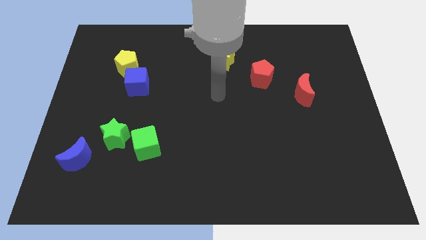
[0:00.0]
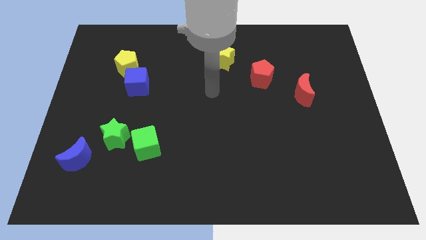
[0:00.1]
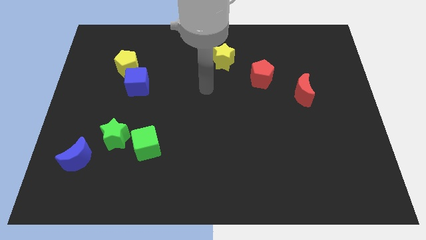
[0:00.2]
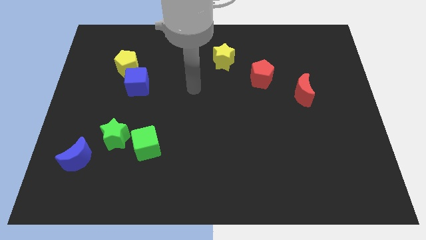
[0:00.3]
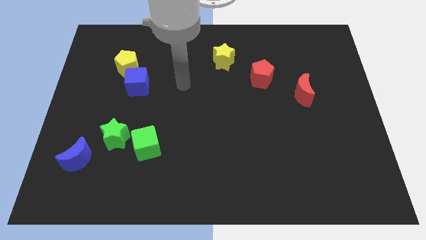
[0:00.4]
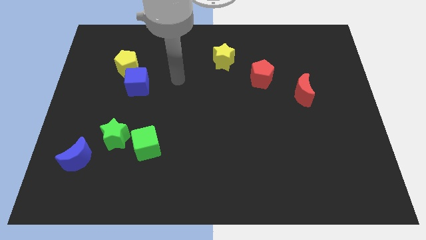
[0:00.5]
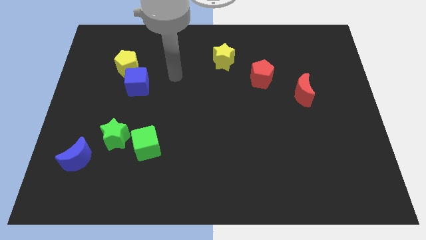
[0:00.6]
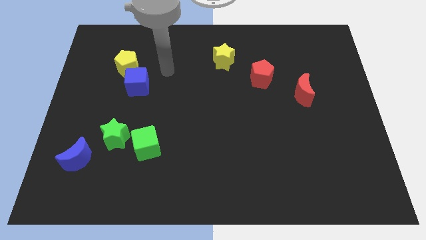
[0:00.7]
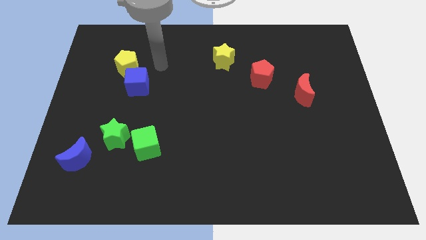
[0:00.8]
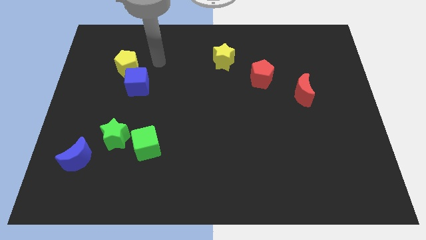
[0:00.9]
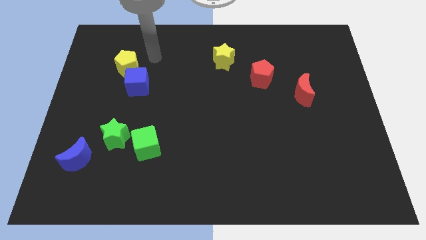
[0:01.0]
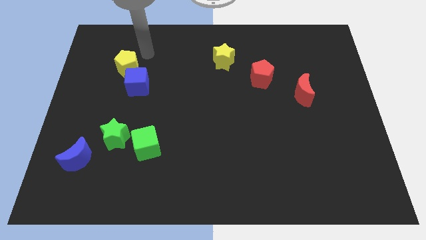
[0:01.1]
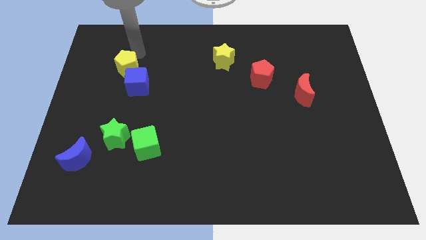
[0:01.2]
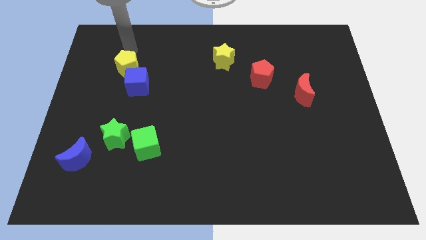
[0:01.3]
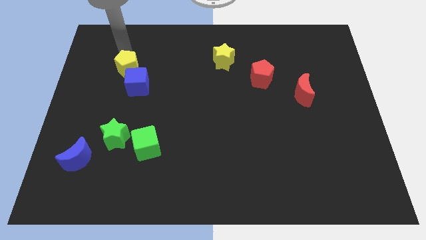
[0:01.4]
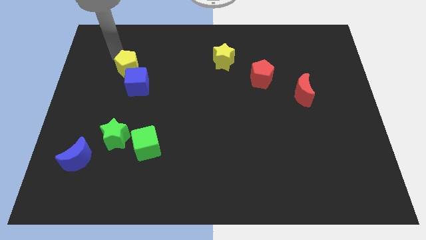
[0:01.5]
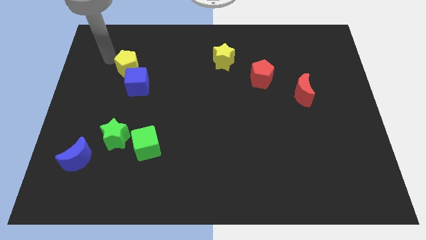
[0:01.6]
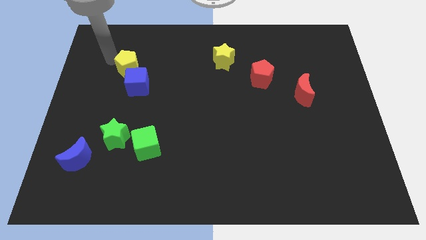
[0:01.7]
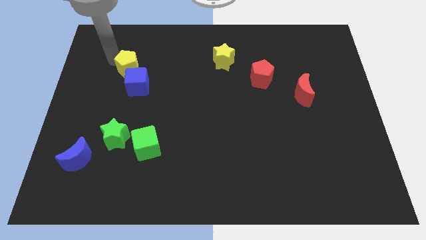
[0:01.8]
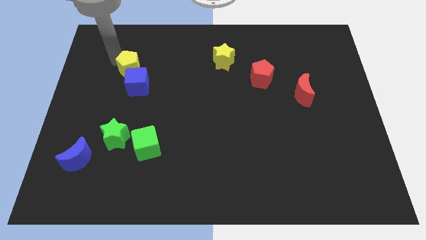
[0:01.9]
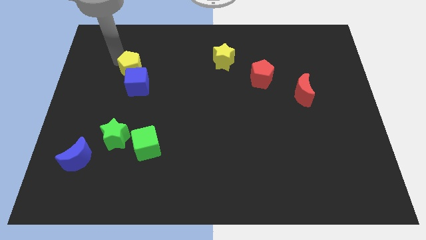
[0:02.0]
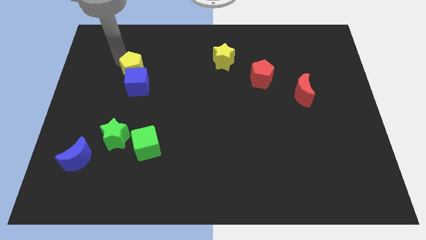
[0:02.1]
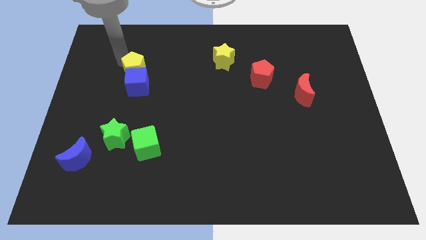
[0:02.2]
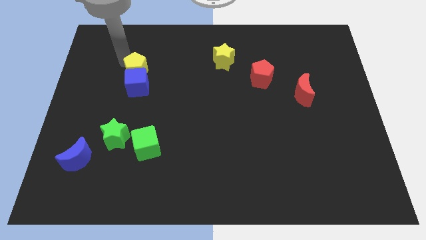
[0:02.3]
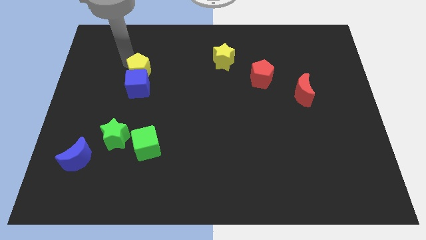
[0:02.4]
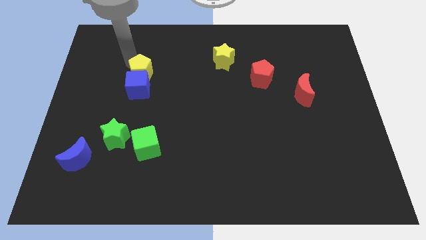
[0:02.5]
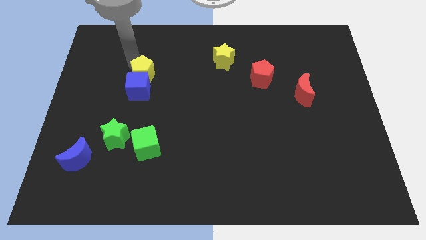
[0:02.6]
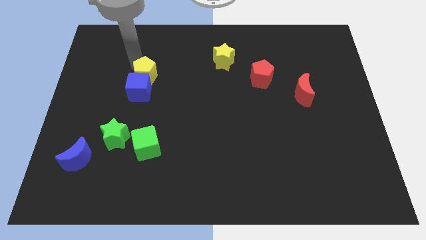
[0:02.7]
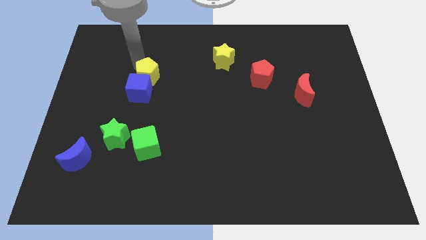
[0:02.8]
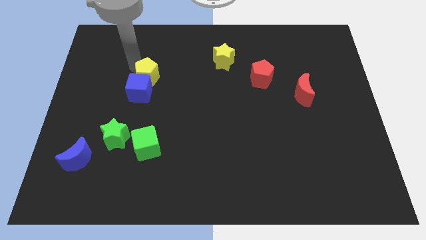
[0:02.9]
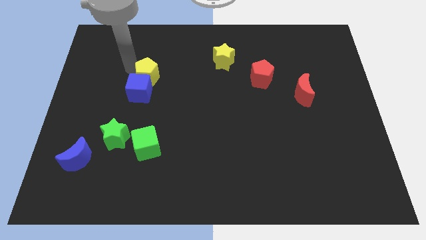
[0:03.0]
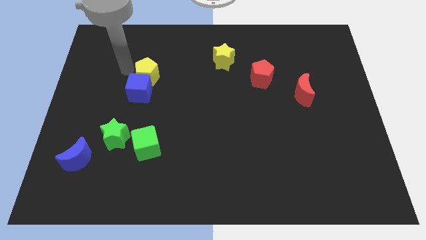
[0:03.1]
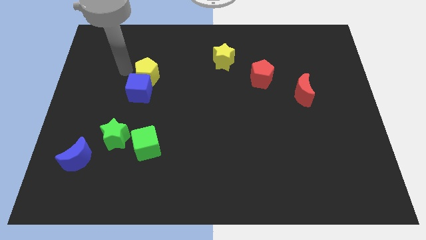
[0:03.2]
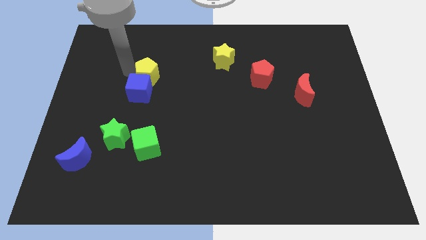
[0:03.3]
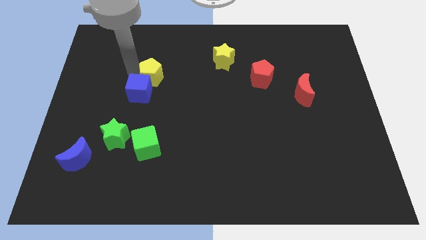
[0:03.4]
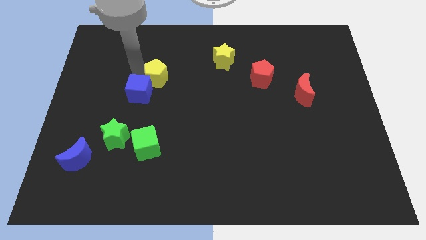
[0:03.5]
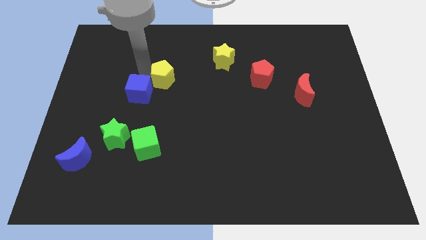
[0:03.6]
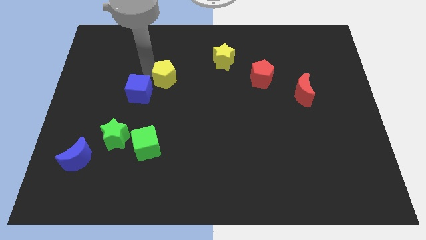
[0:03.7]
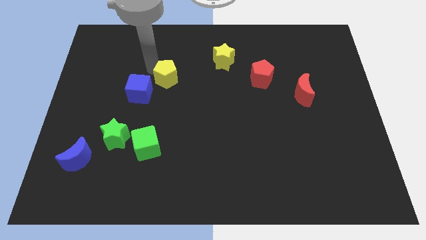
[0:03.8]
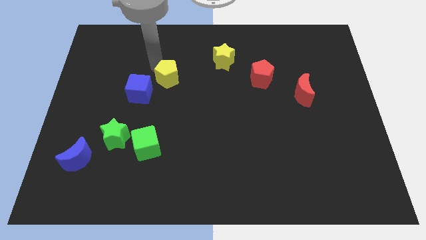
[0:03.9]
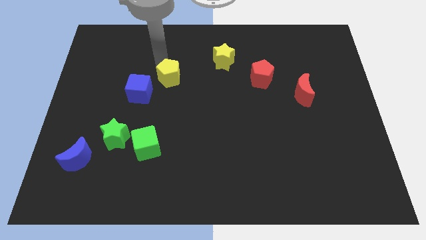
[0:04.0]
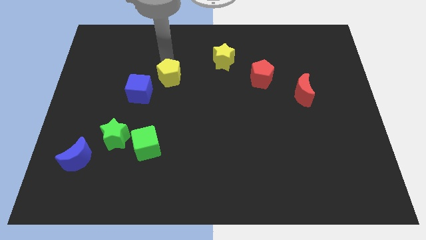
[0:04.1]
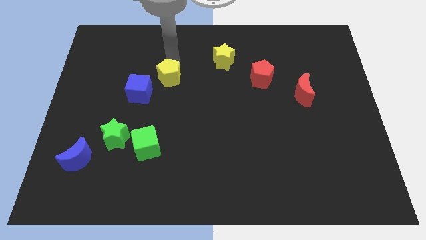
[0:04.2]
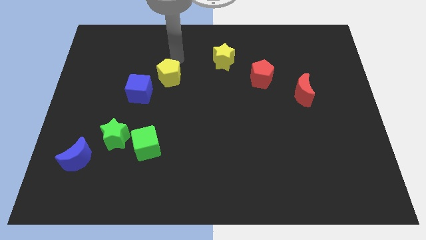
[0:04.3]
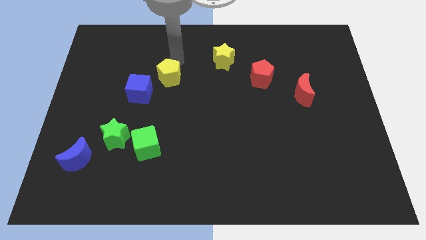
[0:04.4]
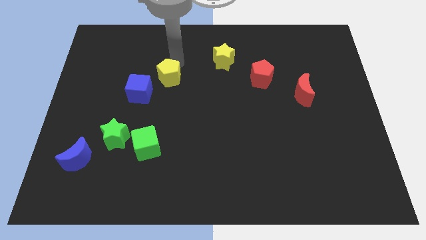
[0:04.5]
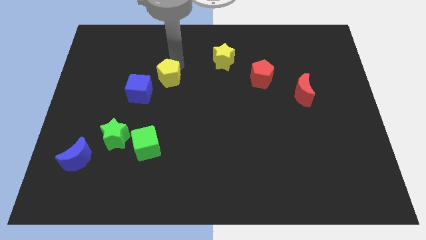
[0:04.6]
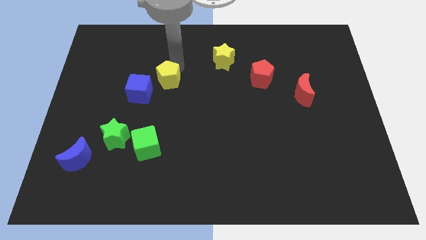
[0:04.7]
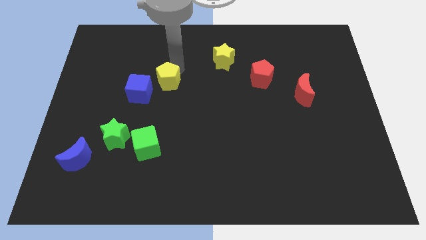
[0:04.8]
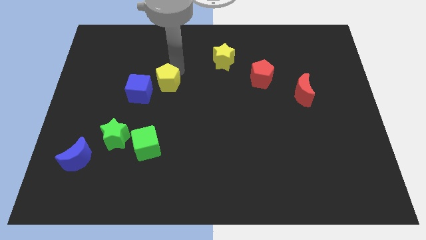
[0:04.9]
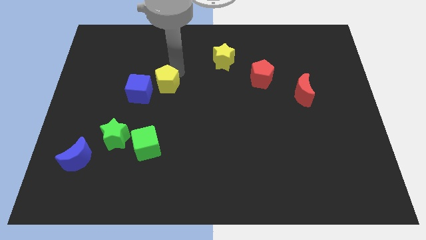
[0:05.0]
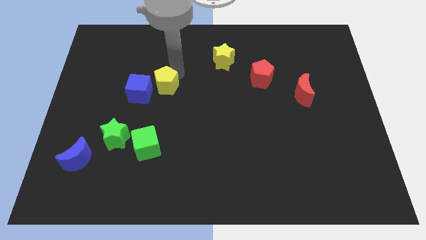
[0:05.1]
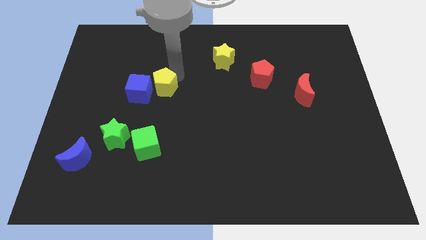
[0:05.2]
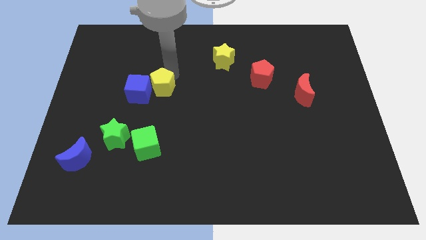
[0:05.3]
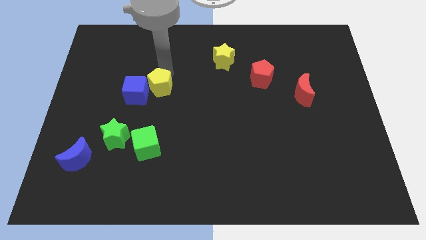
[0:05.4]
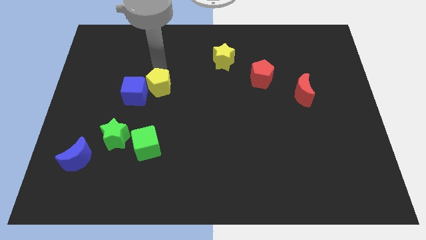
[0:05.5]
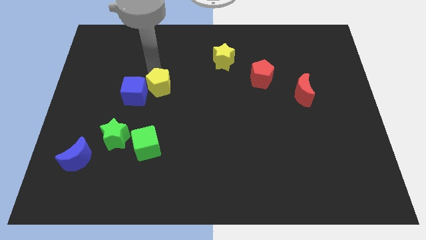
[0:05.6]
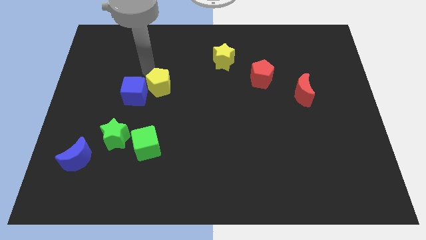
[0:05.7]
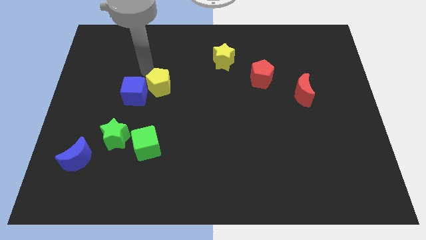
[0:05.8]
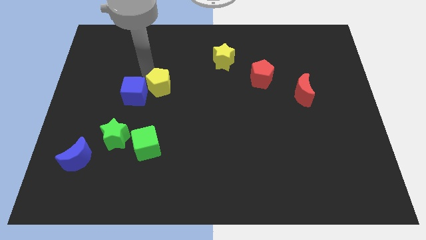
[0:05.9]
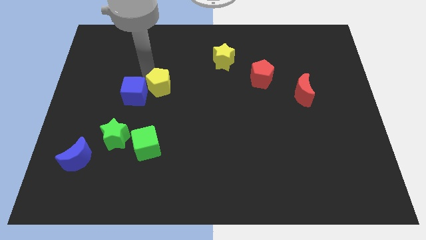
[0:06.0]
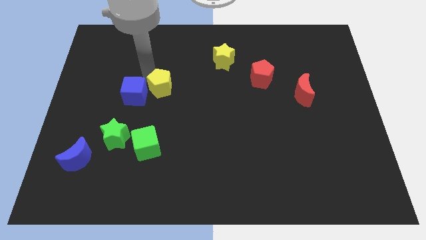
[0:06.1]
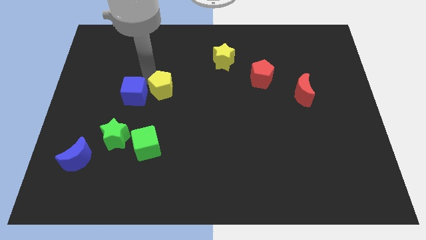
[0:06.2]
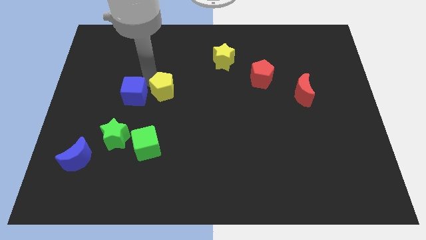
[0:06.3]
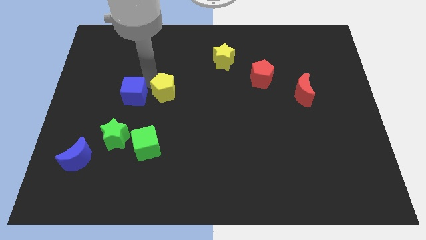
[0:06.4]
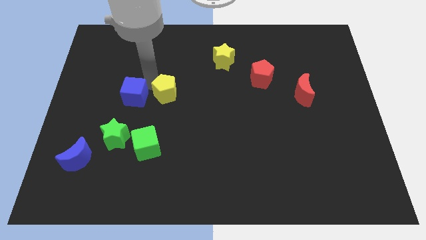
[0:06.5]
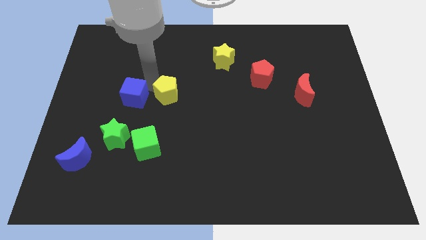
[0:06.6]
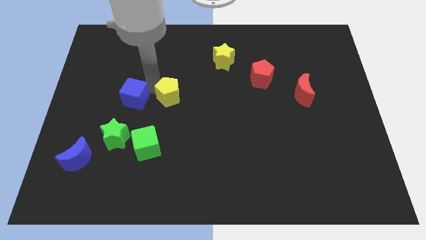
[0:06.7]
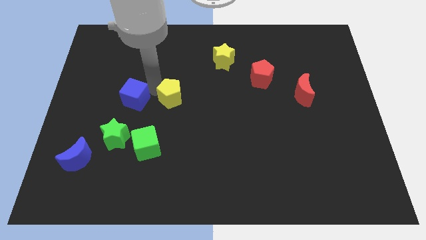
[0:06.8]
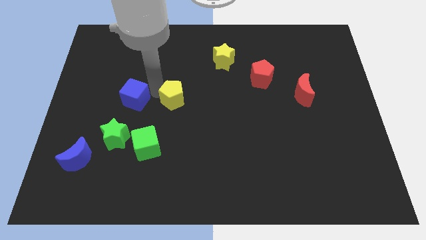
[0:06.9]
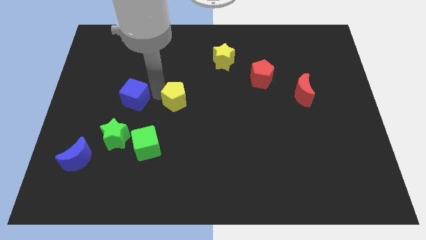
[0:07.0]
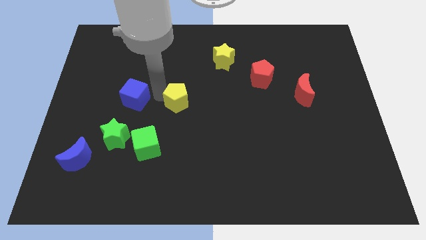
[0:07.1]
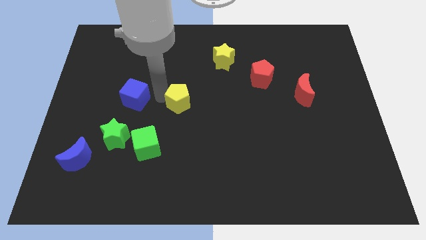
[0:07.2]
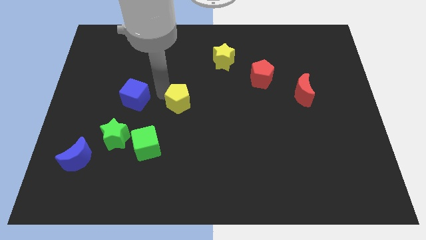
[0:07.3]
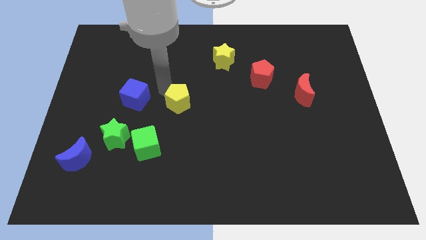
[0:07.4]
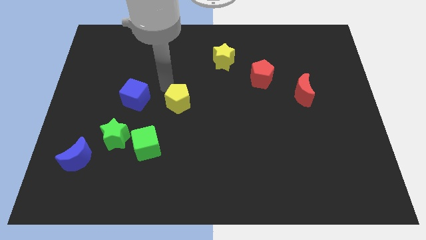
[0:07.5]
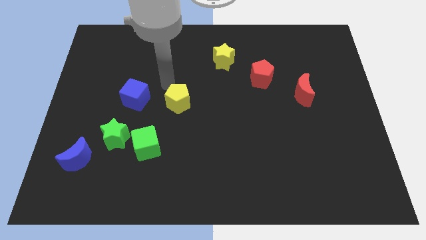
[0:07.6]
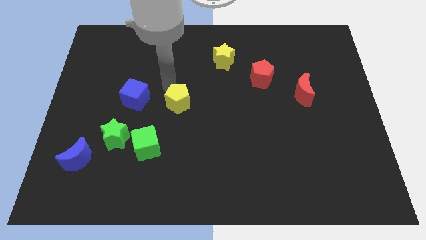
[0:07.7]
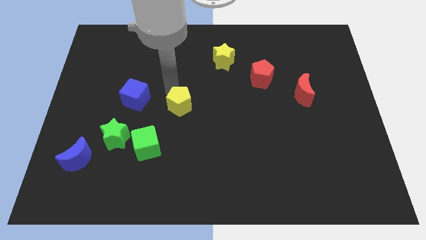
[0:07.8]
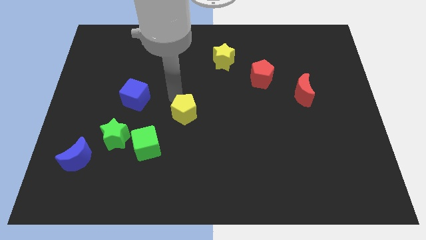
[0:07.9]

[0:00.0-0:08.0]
move the yellow pentagon down and then to the right

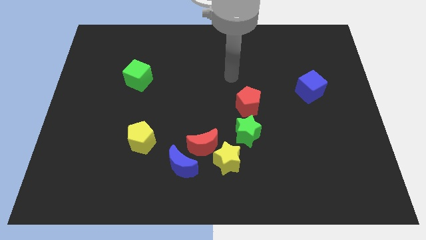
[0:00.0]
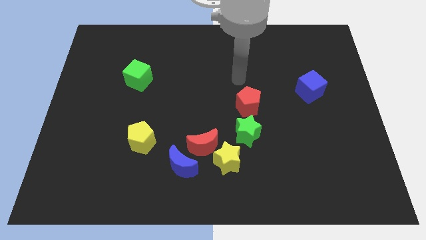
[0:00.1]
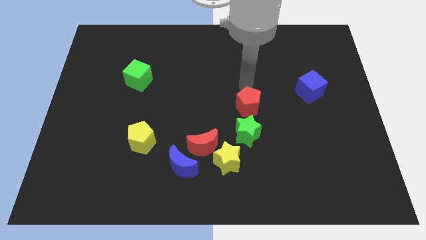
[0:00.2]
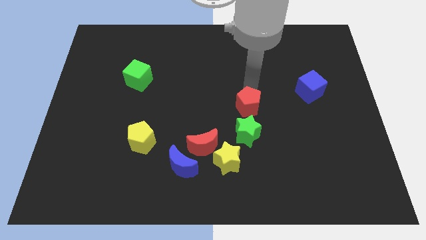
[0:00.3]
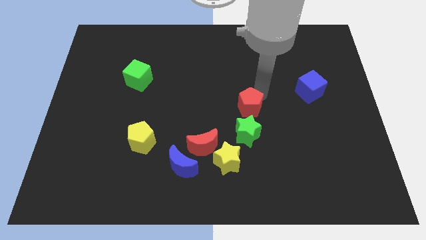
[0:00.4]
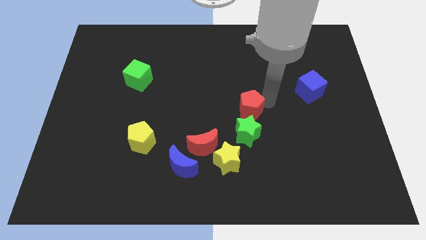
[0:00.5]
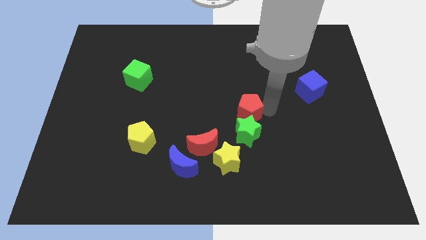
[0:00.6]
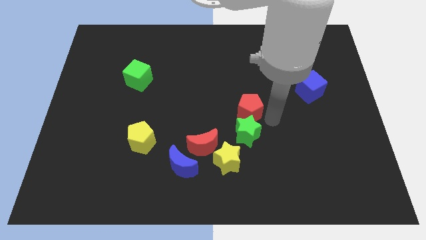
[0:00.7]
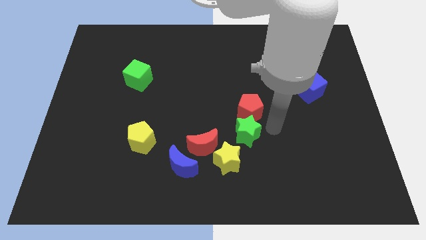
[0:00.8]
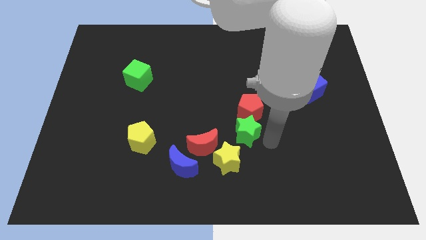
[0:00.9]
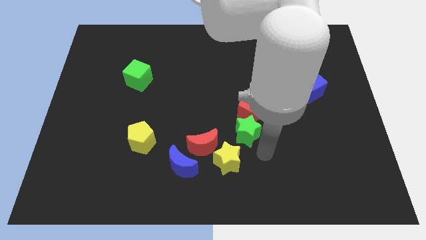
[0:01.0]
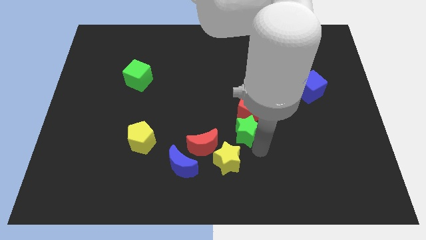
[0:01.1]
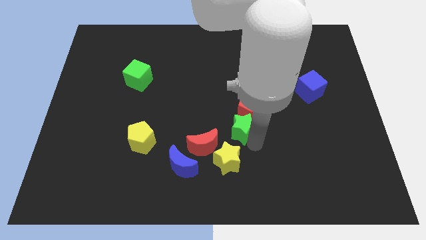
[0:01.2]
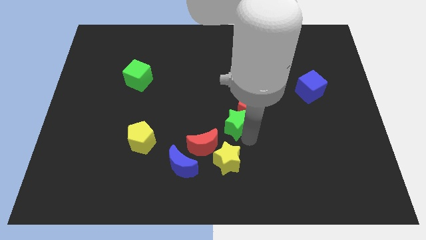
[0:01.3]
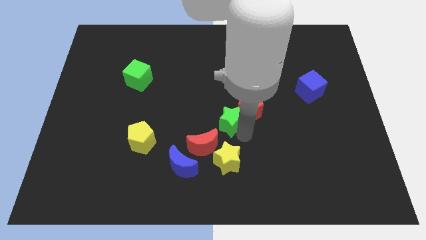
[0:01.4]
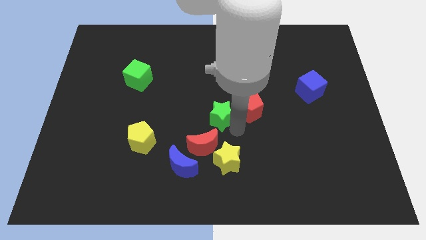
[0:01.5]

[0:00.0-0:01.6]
slightly slide the green star diagonally upwards and left
